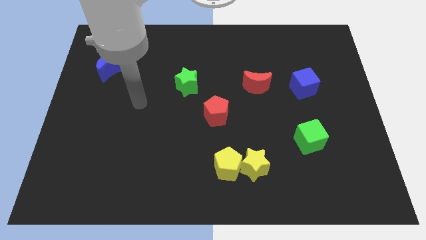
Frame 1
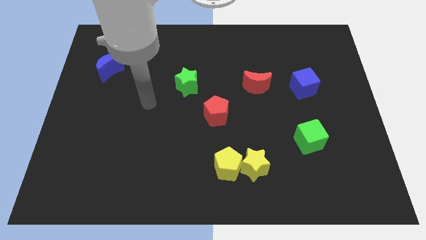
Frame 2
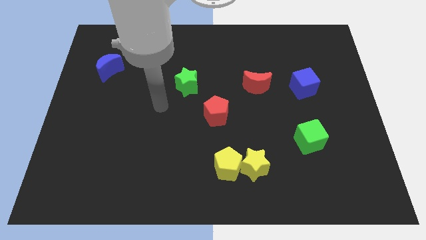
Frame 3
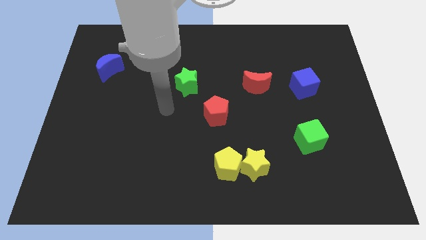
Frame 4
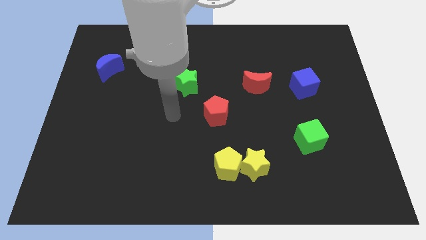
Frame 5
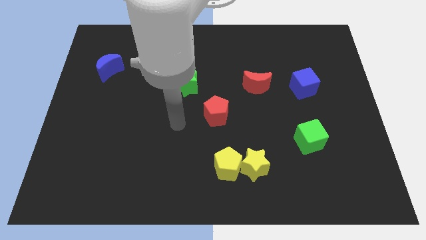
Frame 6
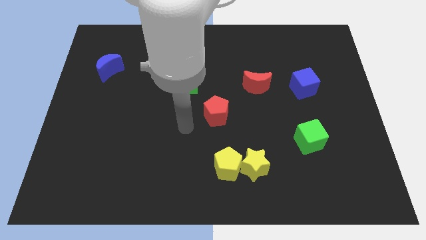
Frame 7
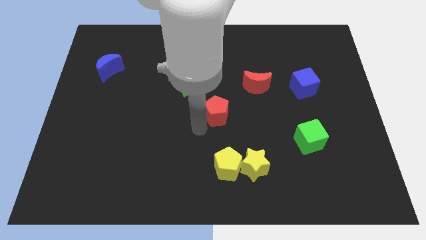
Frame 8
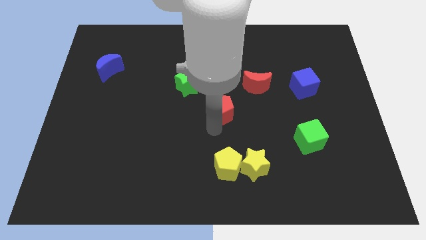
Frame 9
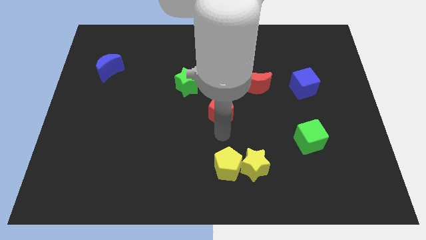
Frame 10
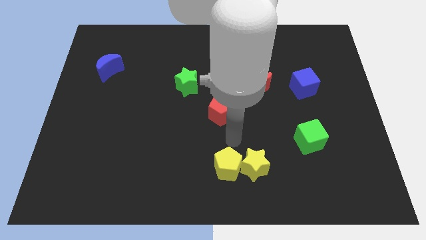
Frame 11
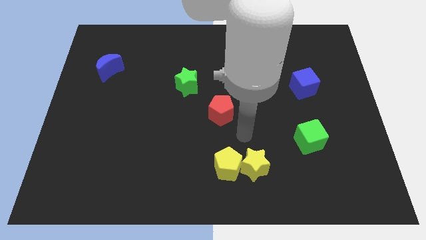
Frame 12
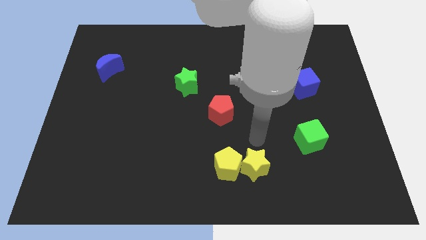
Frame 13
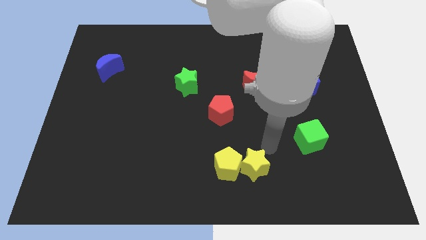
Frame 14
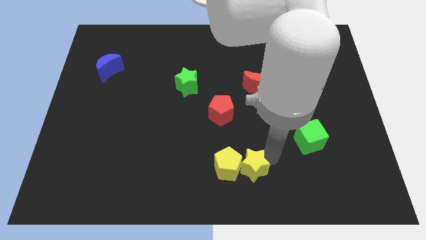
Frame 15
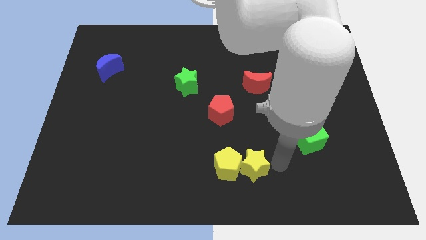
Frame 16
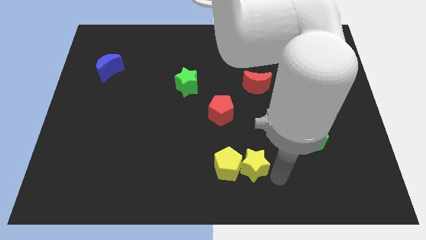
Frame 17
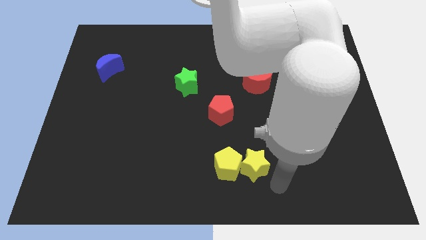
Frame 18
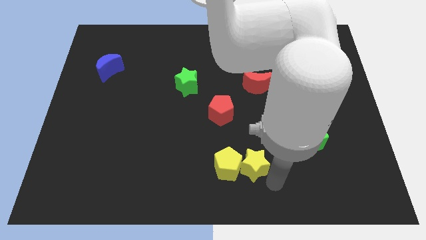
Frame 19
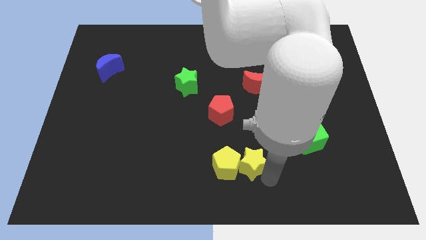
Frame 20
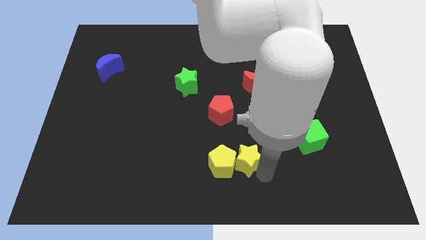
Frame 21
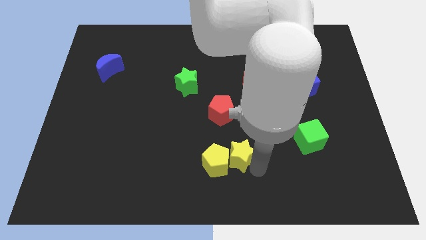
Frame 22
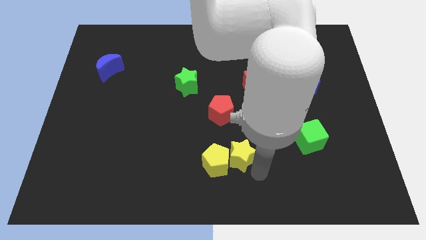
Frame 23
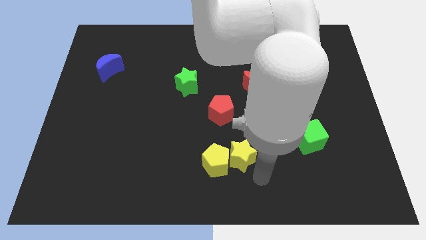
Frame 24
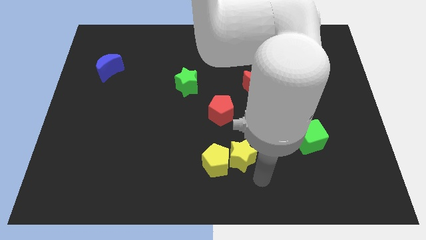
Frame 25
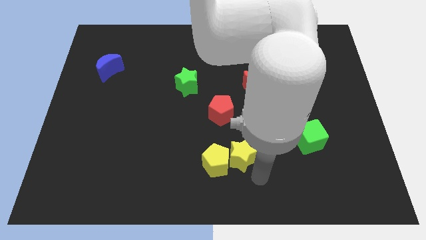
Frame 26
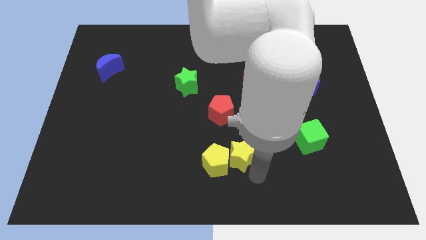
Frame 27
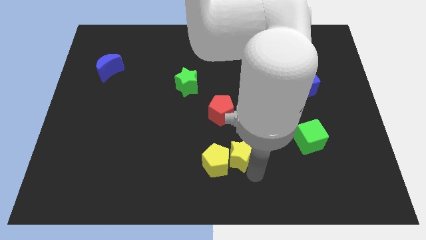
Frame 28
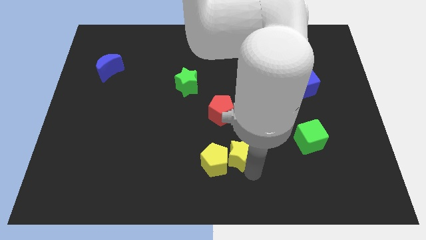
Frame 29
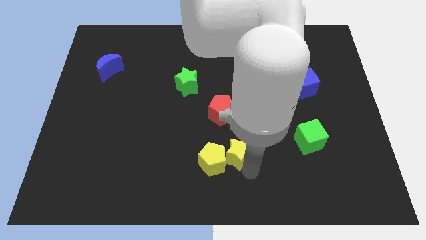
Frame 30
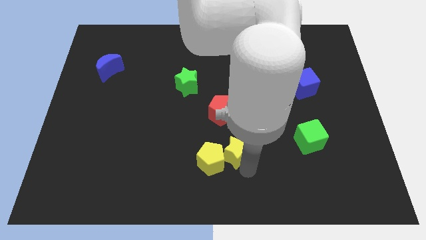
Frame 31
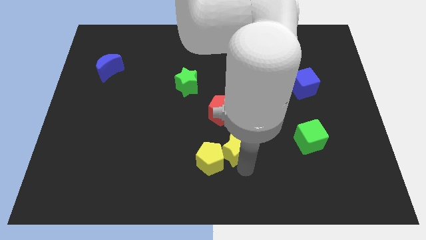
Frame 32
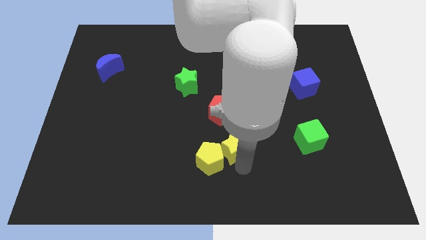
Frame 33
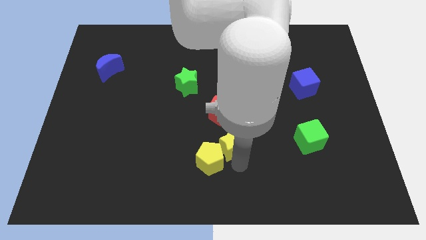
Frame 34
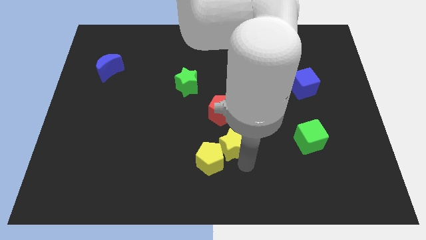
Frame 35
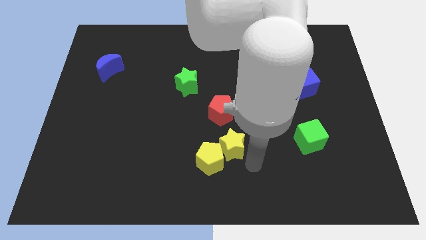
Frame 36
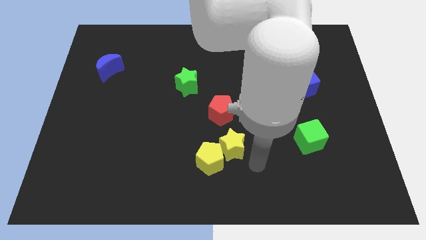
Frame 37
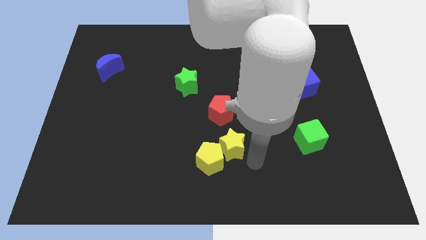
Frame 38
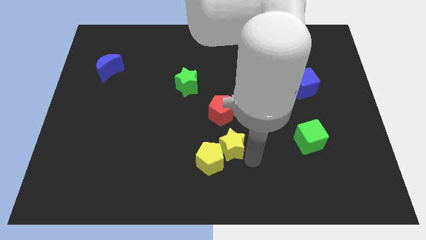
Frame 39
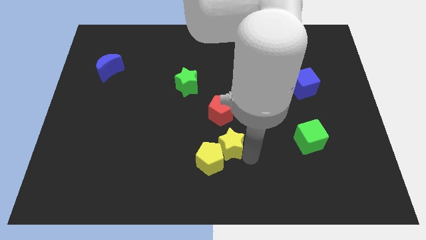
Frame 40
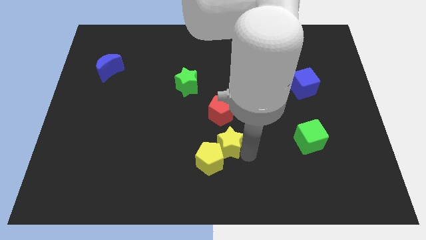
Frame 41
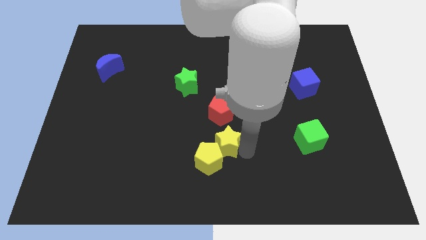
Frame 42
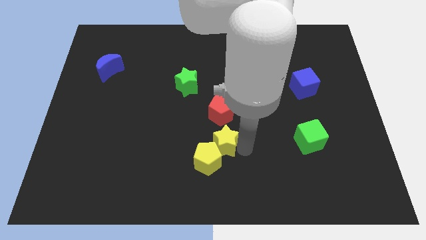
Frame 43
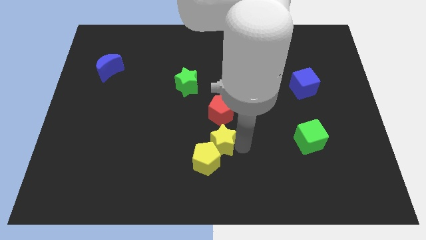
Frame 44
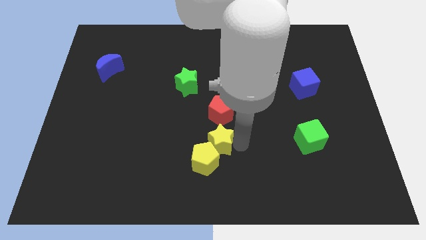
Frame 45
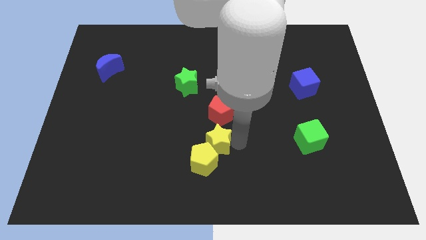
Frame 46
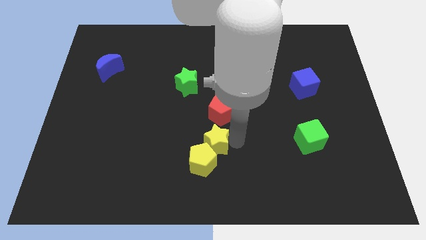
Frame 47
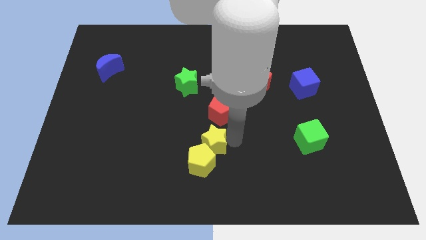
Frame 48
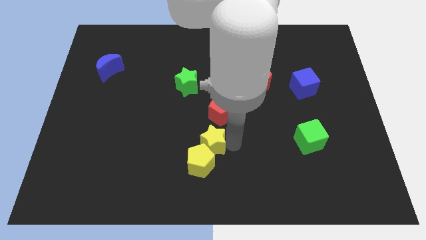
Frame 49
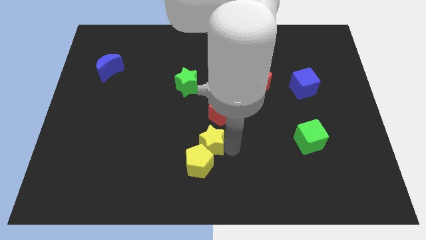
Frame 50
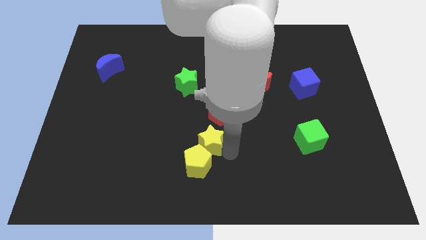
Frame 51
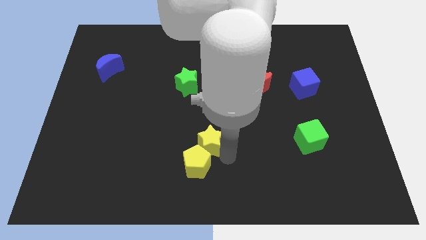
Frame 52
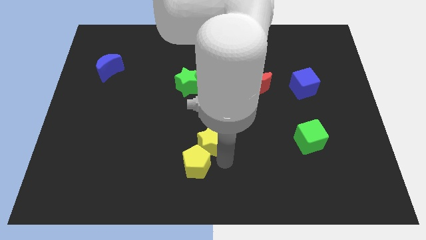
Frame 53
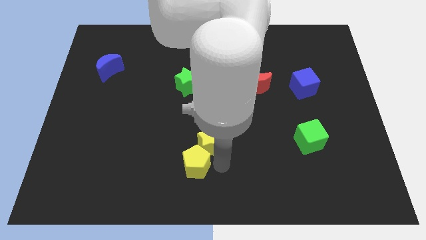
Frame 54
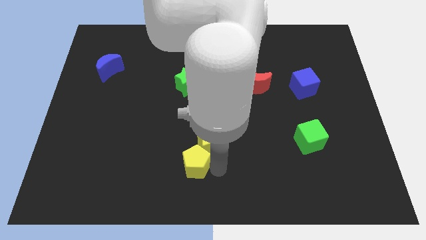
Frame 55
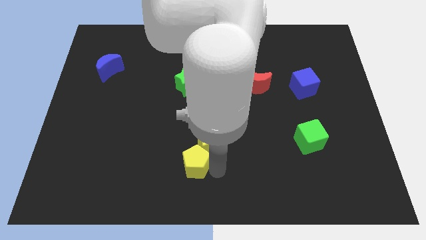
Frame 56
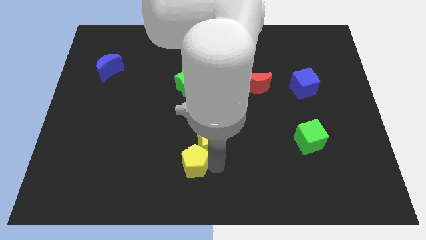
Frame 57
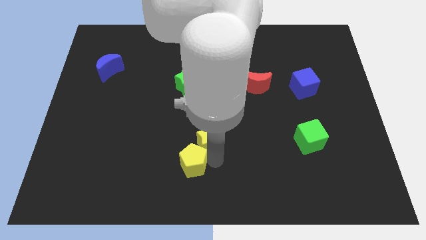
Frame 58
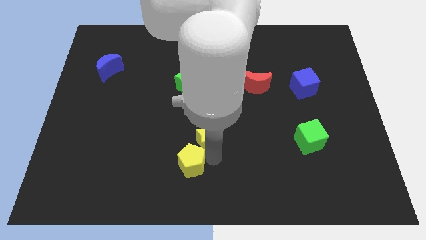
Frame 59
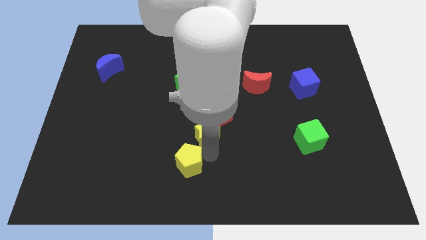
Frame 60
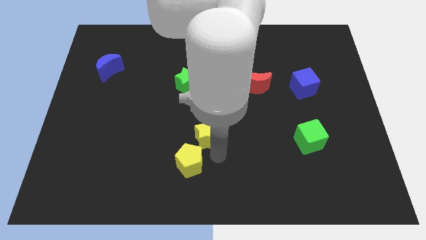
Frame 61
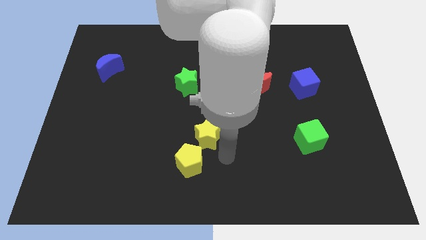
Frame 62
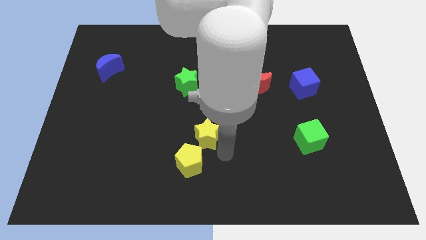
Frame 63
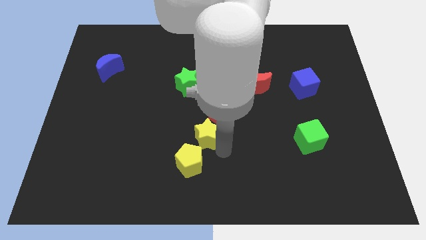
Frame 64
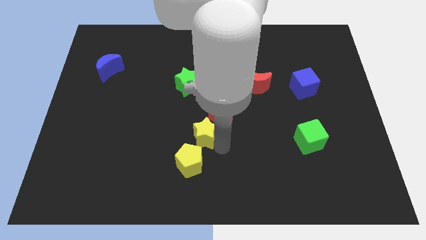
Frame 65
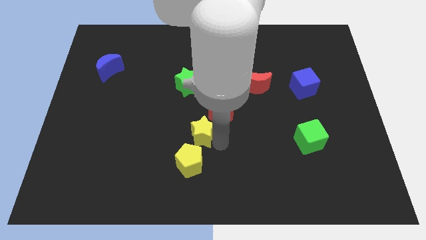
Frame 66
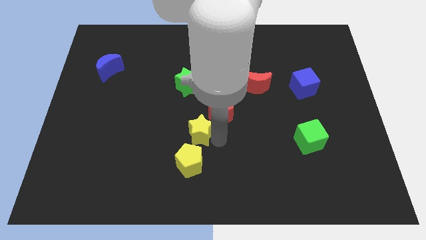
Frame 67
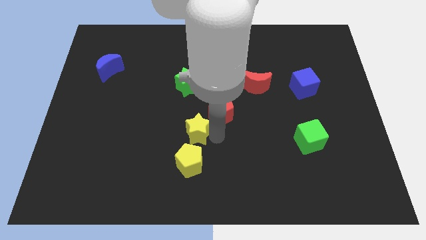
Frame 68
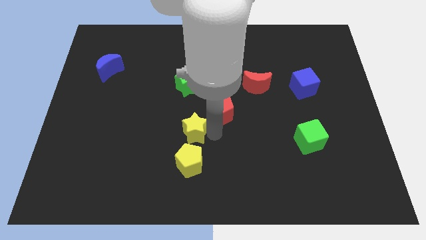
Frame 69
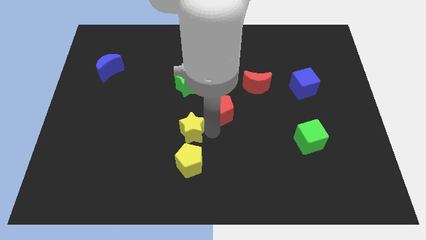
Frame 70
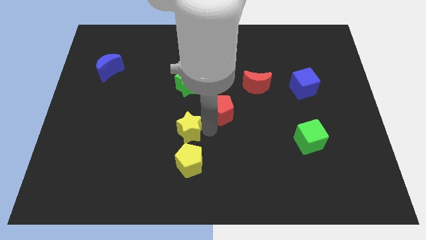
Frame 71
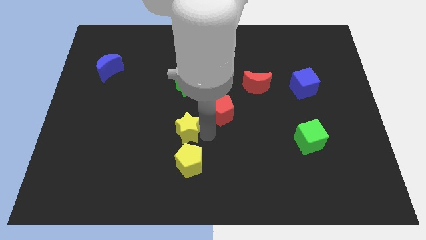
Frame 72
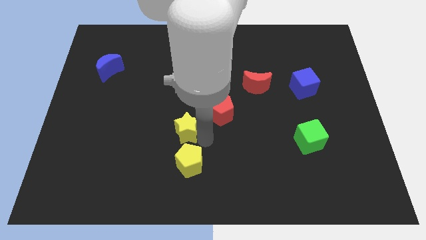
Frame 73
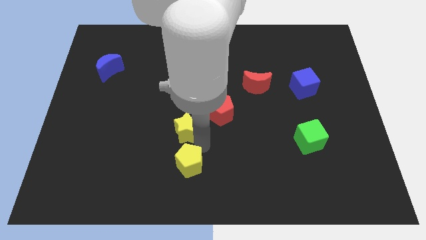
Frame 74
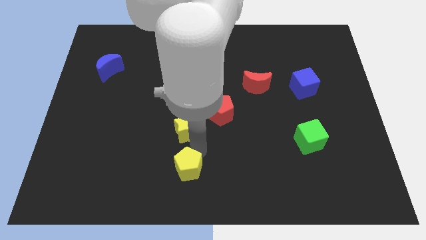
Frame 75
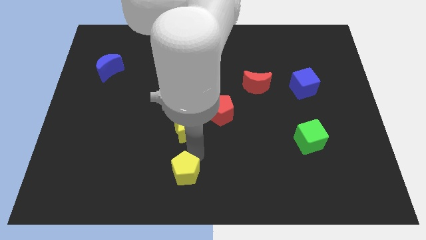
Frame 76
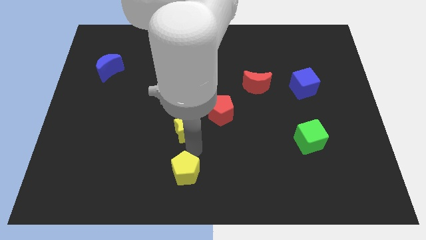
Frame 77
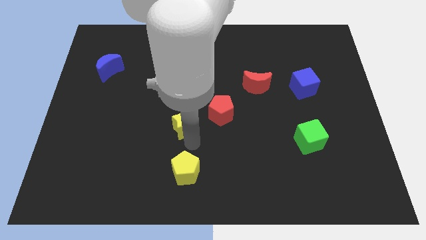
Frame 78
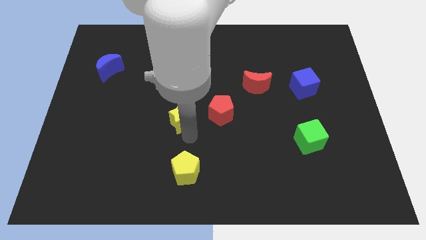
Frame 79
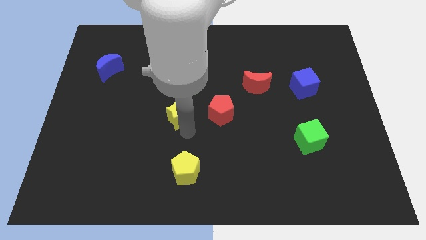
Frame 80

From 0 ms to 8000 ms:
push the yellow star up and left
